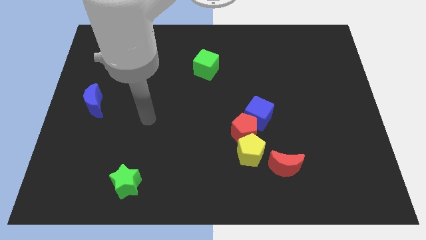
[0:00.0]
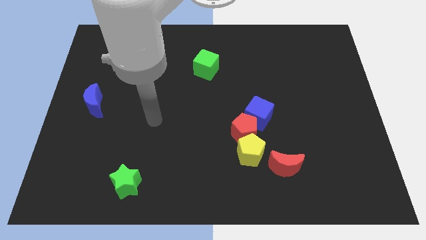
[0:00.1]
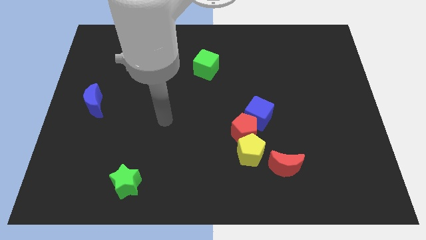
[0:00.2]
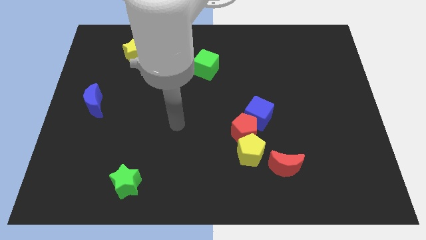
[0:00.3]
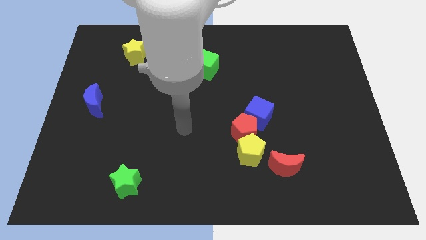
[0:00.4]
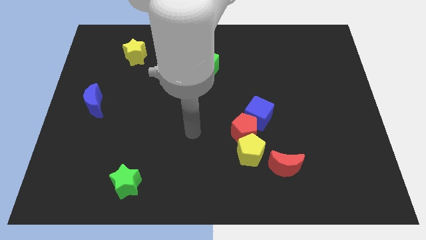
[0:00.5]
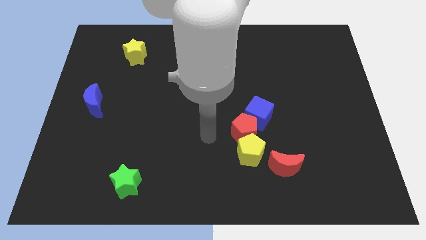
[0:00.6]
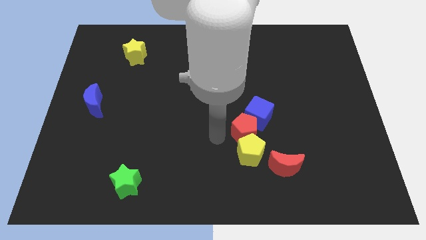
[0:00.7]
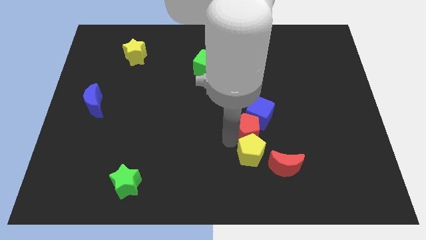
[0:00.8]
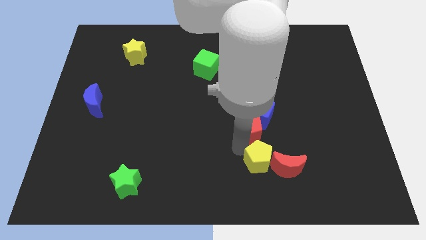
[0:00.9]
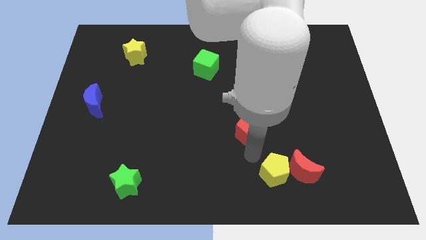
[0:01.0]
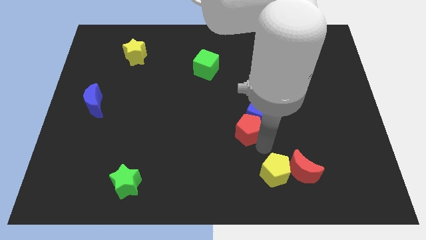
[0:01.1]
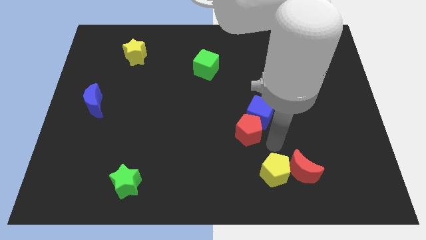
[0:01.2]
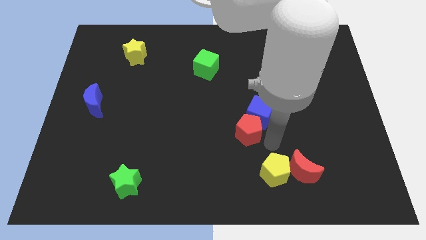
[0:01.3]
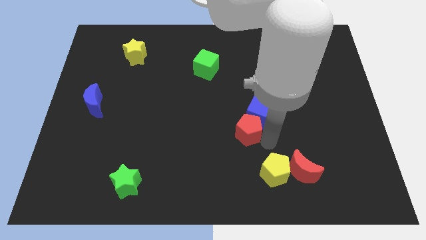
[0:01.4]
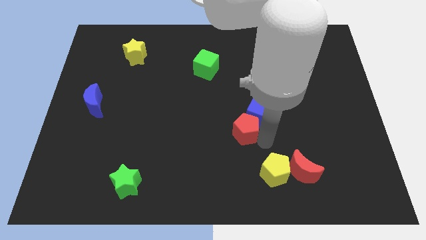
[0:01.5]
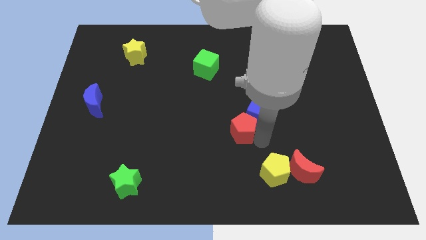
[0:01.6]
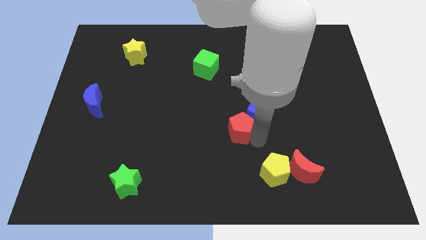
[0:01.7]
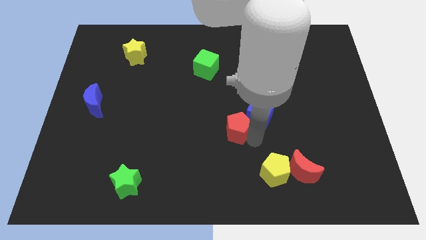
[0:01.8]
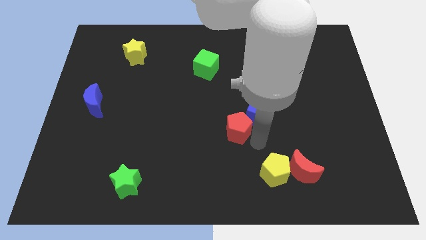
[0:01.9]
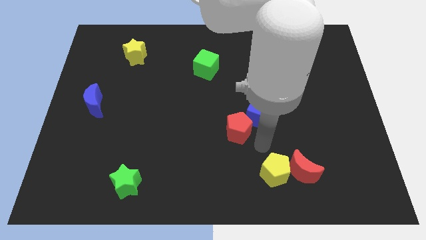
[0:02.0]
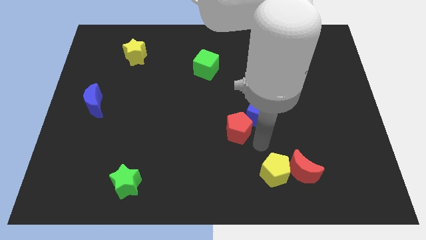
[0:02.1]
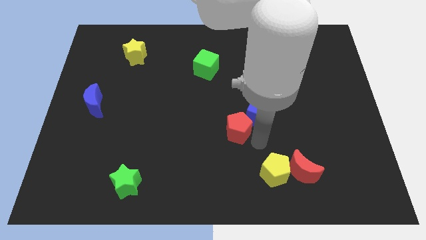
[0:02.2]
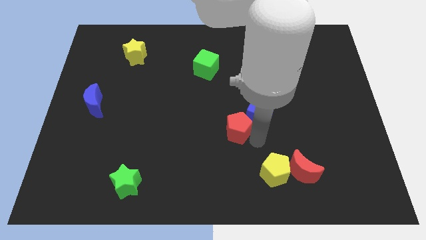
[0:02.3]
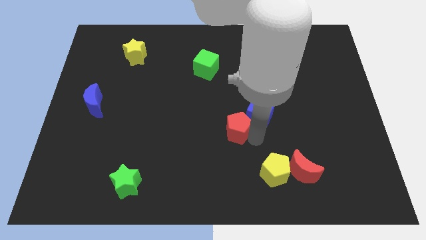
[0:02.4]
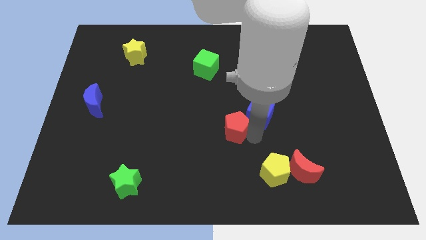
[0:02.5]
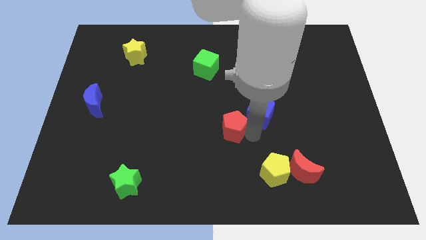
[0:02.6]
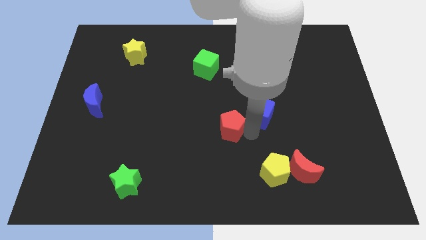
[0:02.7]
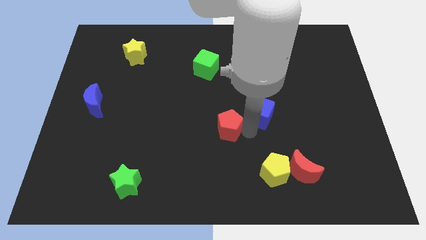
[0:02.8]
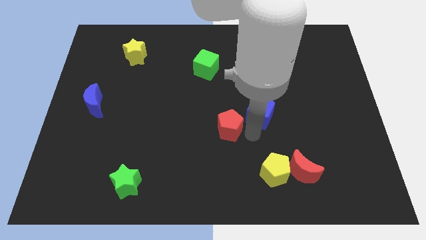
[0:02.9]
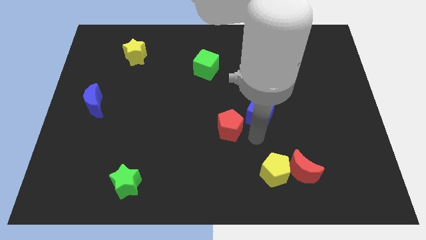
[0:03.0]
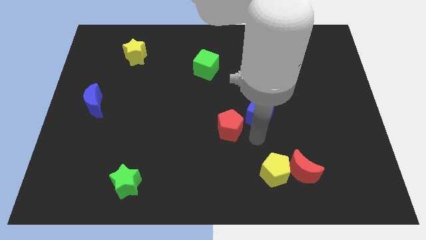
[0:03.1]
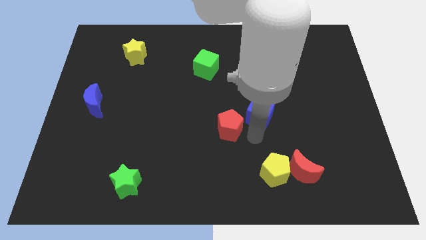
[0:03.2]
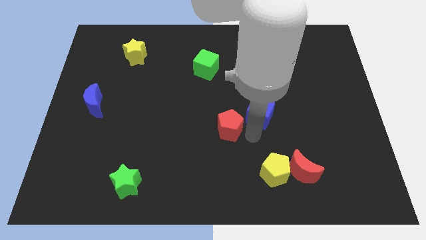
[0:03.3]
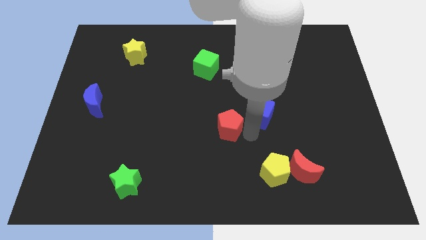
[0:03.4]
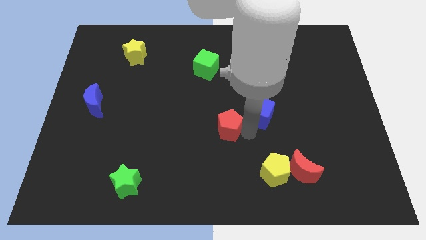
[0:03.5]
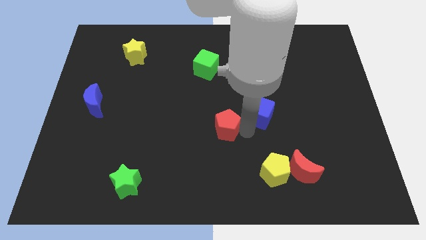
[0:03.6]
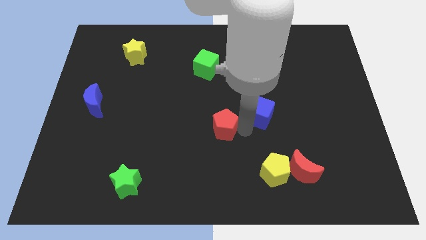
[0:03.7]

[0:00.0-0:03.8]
move the red pentagon away from the blue cube and yellow pentagon

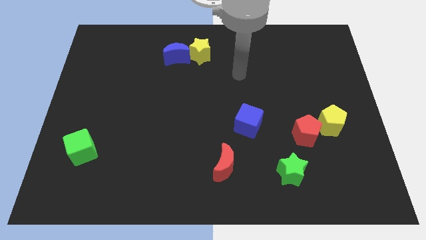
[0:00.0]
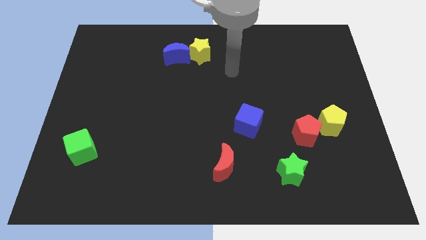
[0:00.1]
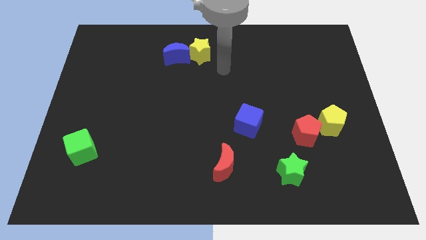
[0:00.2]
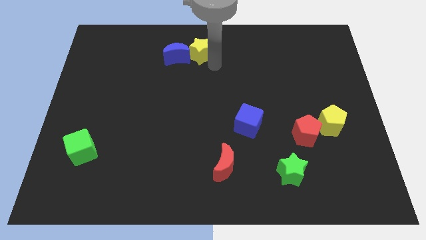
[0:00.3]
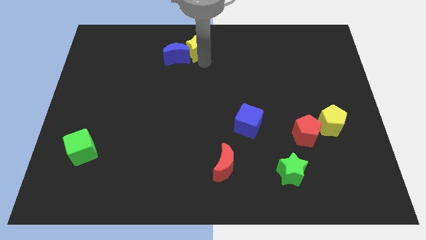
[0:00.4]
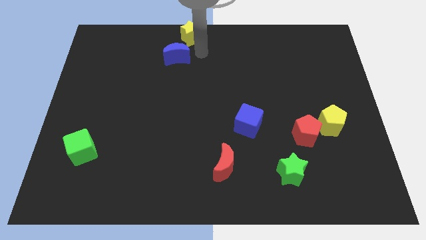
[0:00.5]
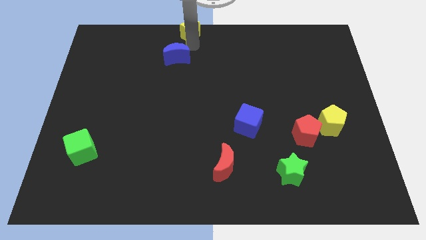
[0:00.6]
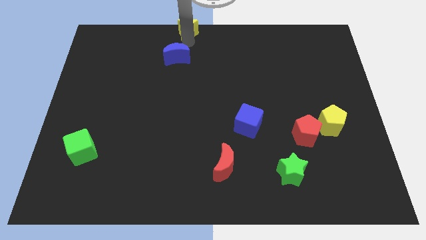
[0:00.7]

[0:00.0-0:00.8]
move the blue moon away from the yellow star

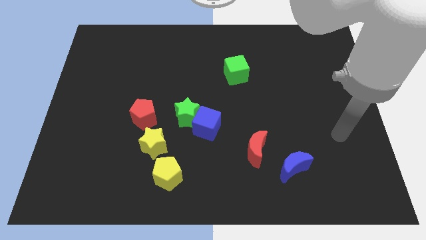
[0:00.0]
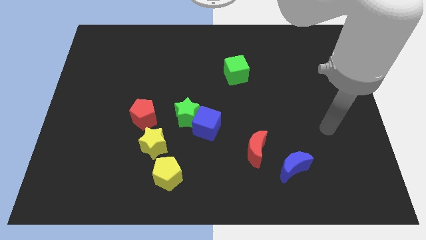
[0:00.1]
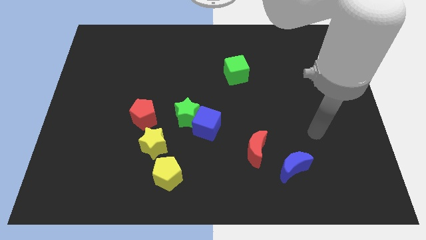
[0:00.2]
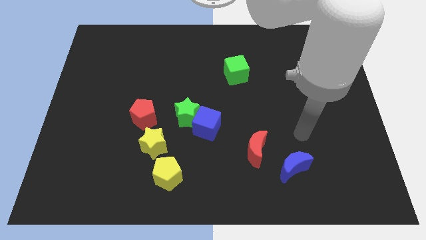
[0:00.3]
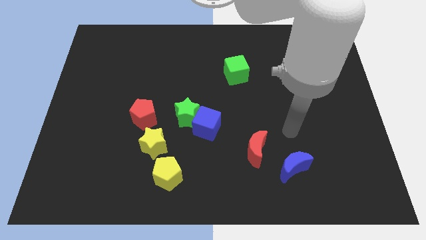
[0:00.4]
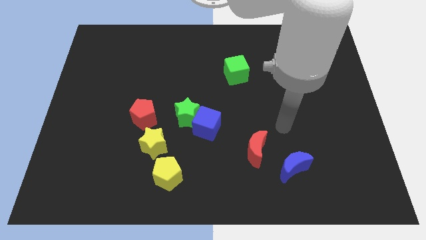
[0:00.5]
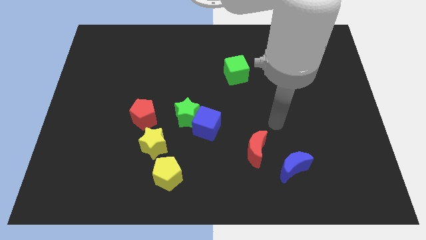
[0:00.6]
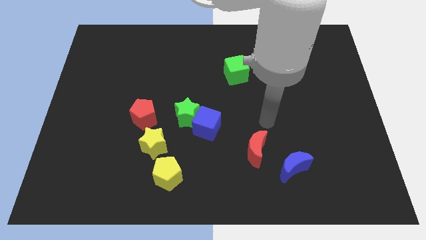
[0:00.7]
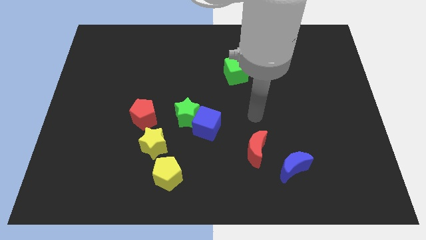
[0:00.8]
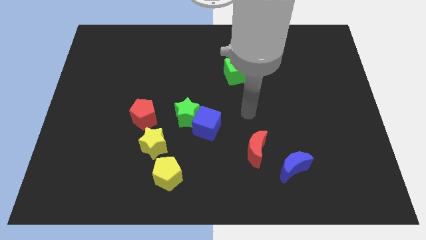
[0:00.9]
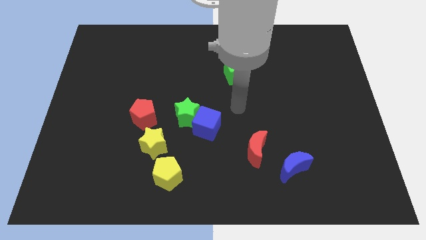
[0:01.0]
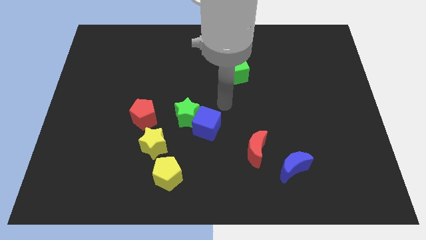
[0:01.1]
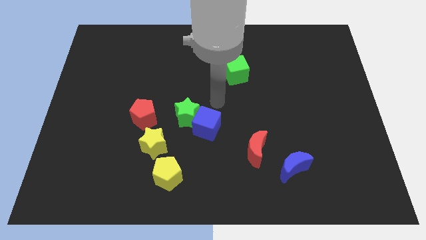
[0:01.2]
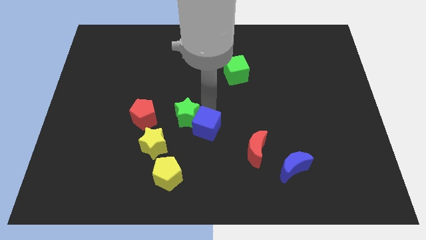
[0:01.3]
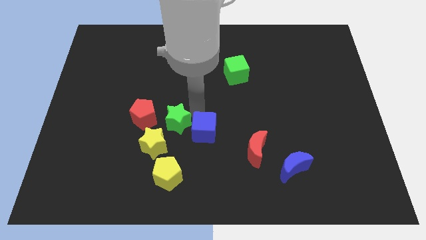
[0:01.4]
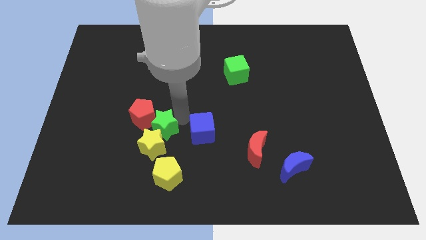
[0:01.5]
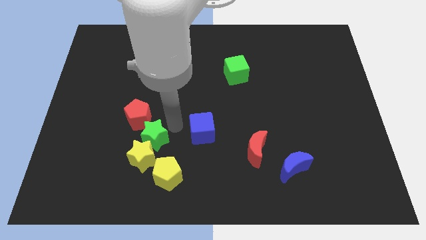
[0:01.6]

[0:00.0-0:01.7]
pull the blue cube apart from the green star

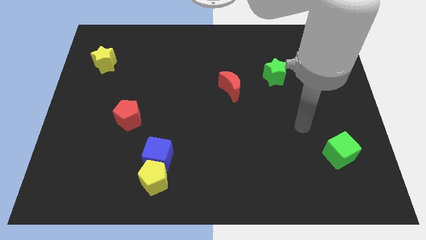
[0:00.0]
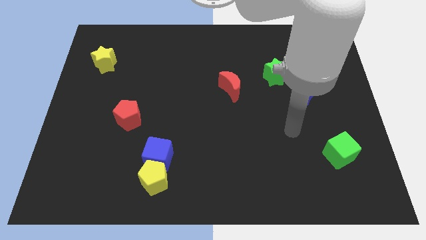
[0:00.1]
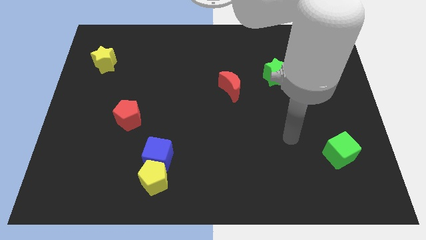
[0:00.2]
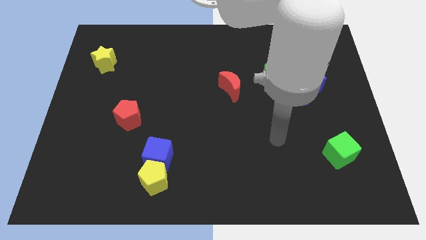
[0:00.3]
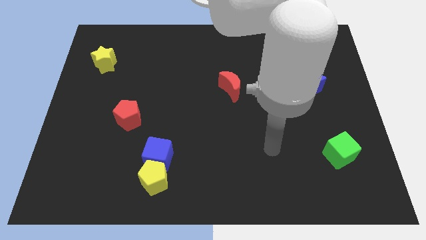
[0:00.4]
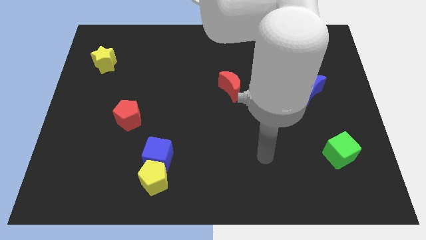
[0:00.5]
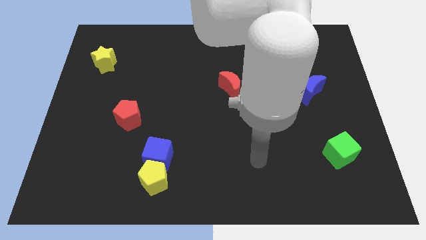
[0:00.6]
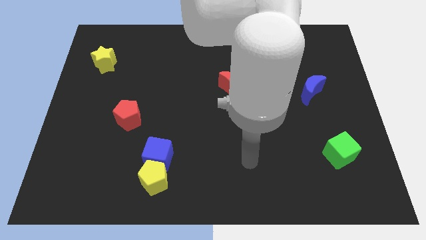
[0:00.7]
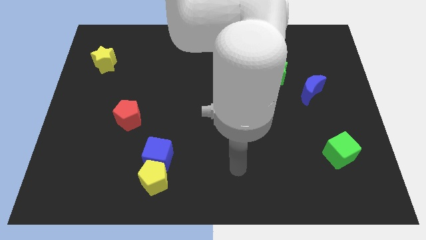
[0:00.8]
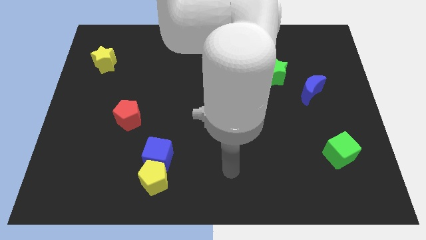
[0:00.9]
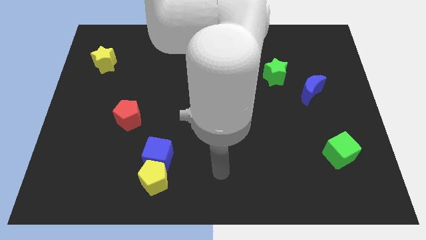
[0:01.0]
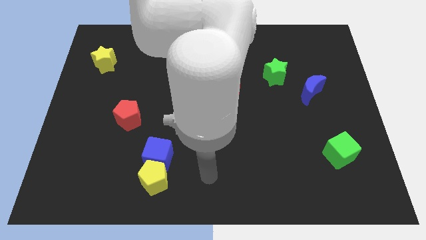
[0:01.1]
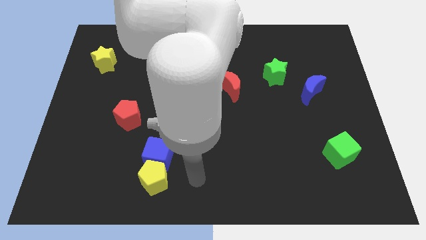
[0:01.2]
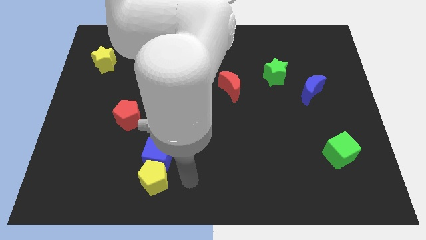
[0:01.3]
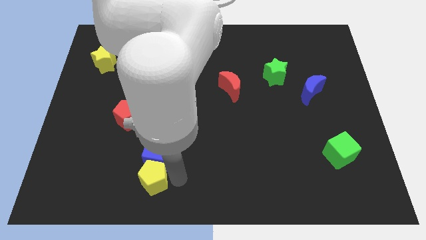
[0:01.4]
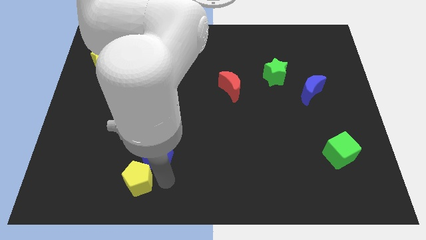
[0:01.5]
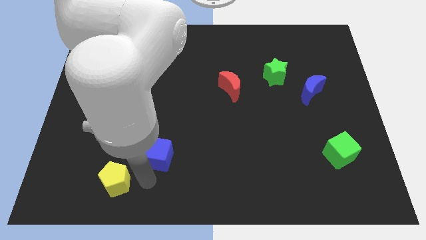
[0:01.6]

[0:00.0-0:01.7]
pull the blue cube apart from the yellow pentagon

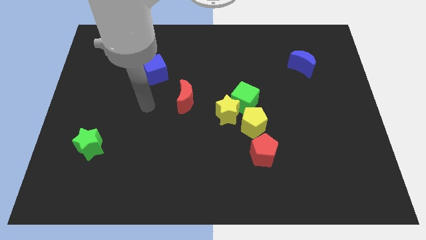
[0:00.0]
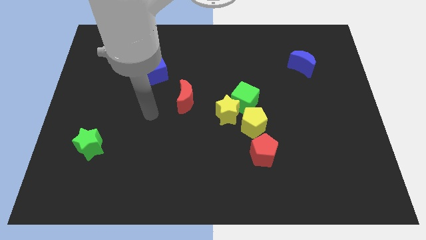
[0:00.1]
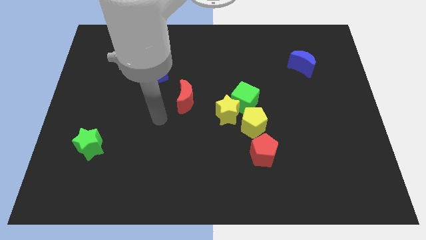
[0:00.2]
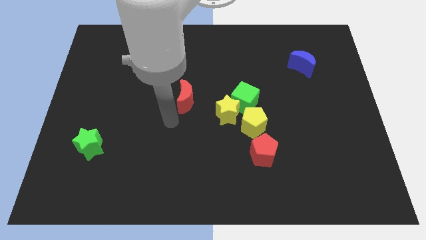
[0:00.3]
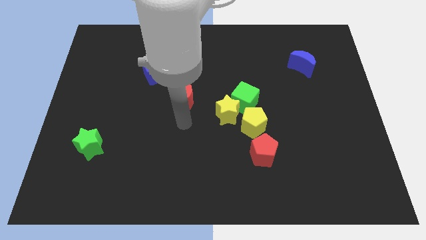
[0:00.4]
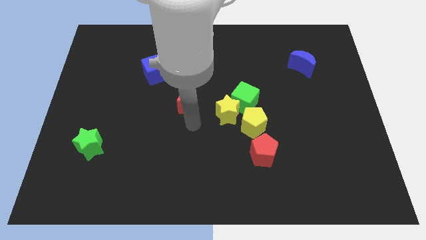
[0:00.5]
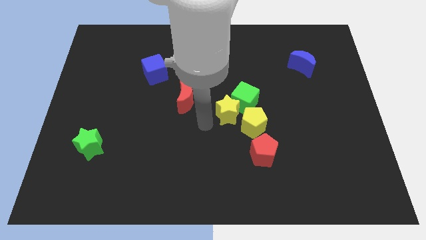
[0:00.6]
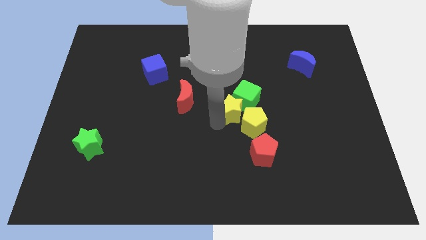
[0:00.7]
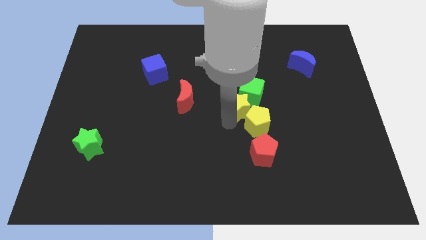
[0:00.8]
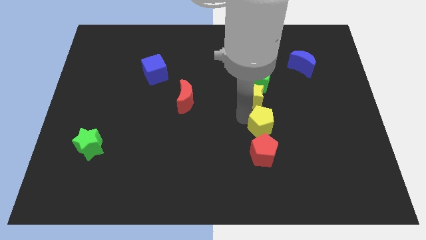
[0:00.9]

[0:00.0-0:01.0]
move the green cube away from the yellow star and yellow pentagon

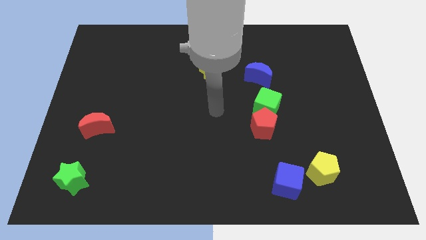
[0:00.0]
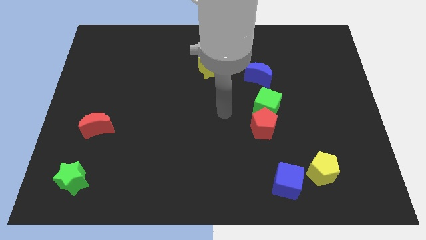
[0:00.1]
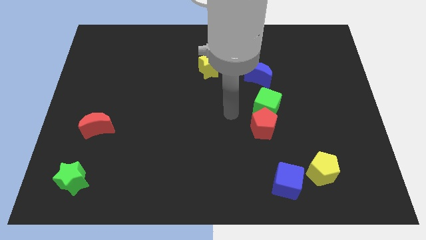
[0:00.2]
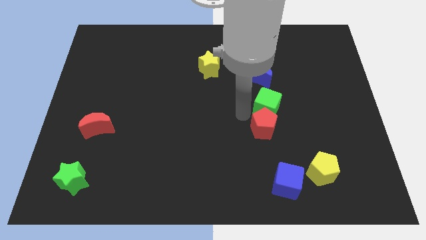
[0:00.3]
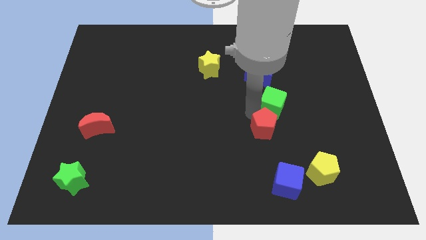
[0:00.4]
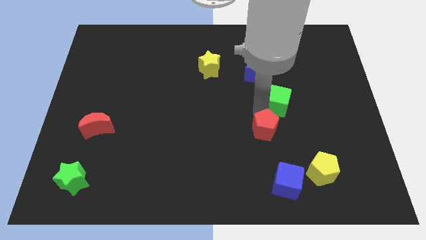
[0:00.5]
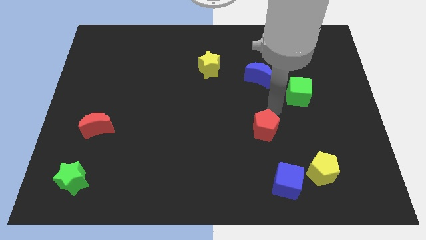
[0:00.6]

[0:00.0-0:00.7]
move the red pentagon away from the green cube
